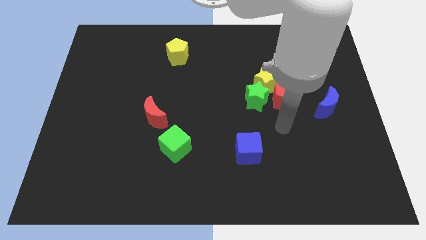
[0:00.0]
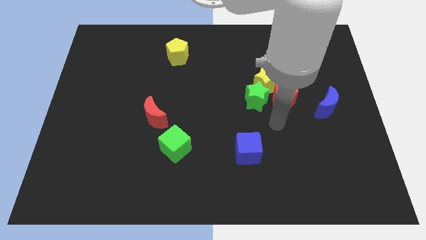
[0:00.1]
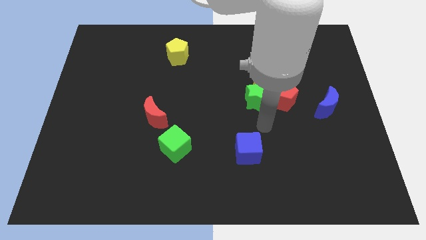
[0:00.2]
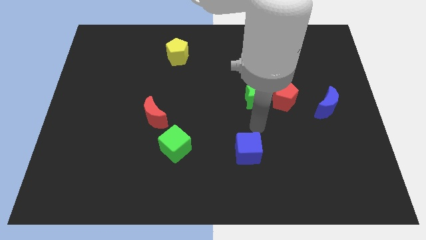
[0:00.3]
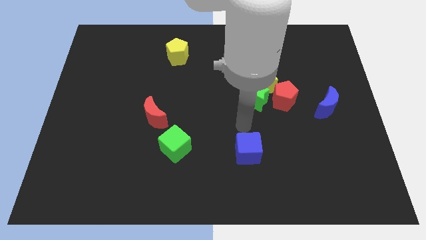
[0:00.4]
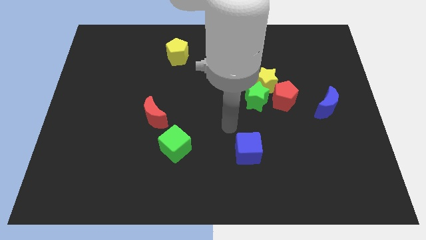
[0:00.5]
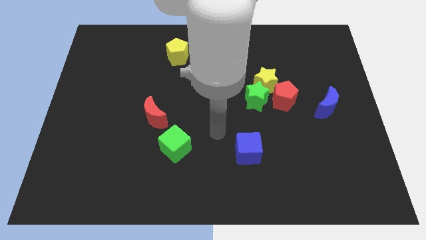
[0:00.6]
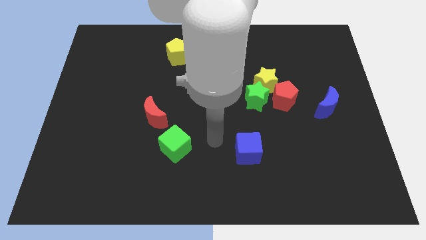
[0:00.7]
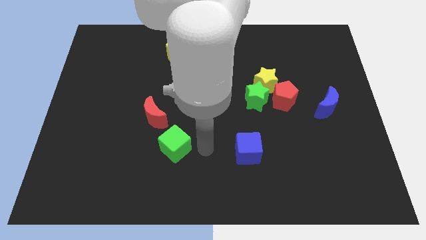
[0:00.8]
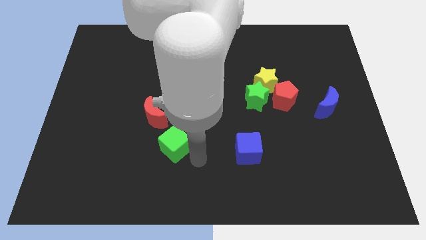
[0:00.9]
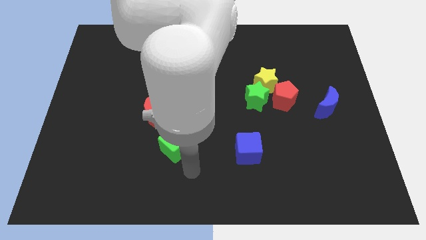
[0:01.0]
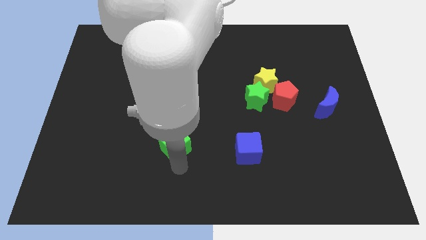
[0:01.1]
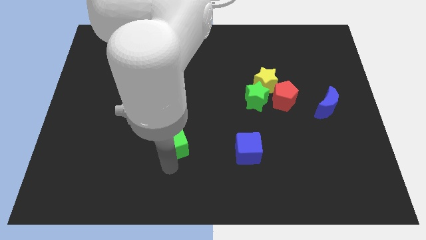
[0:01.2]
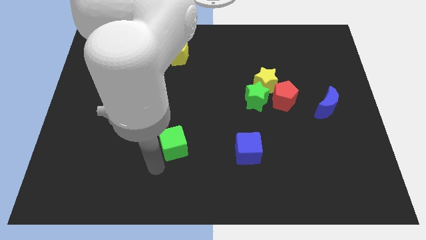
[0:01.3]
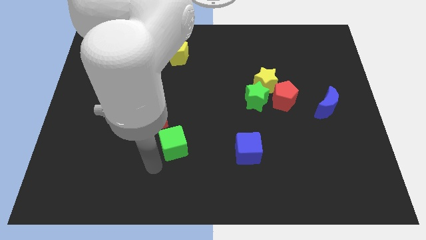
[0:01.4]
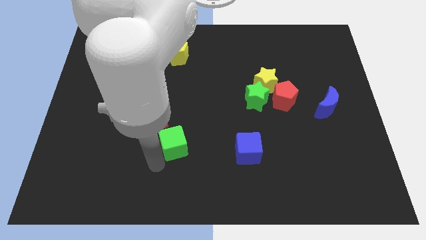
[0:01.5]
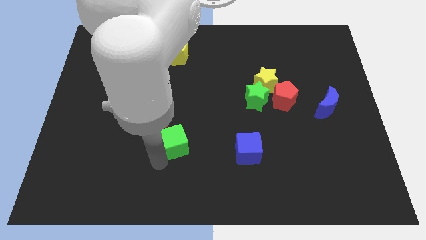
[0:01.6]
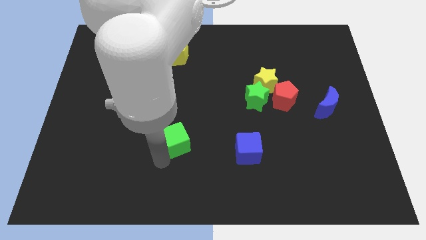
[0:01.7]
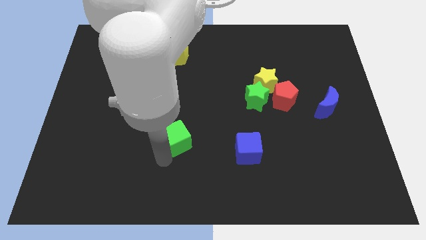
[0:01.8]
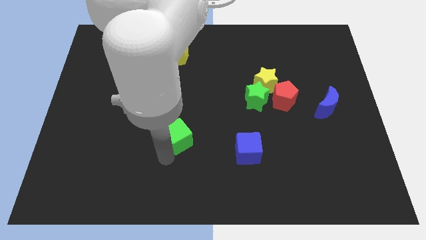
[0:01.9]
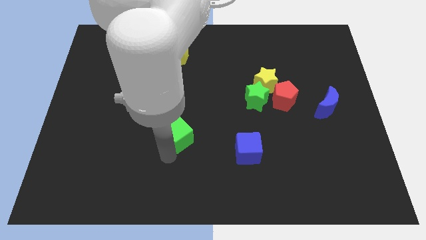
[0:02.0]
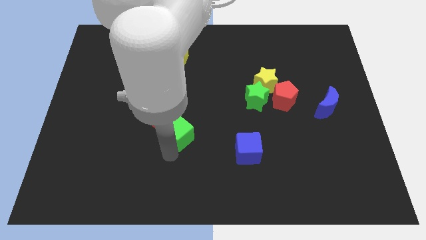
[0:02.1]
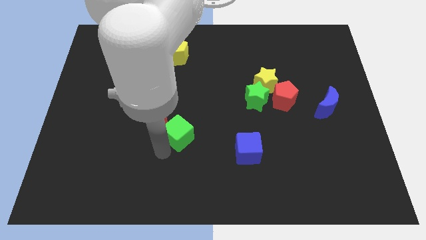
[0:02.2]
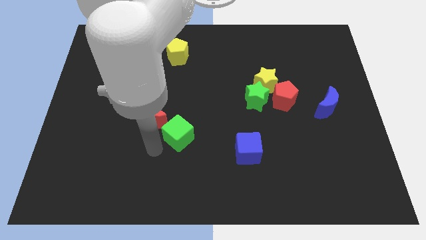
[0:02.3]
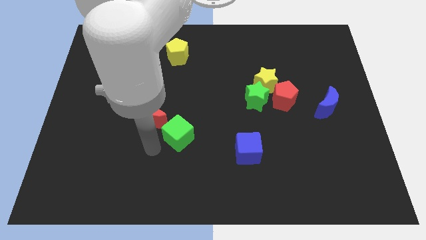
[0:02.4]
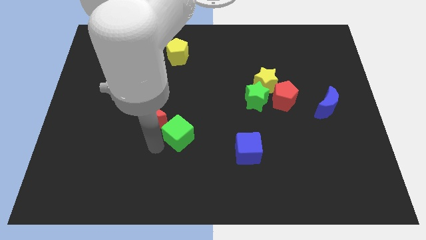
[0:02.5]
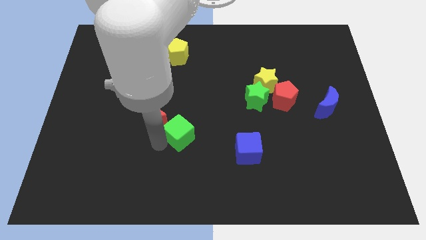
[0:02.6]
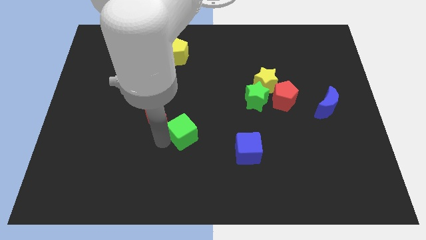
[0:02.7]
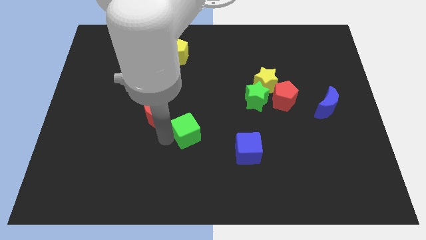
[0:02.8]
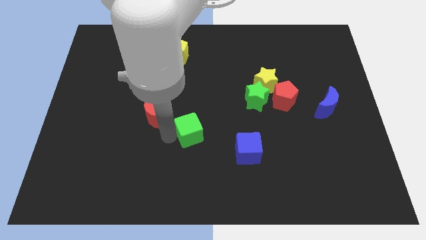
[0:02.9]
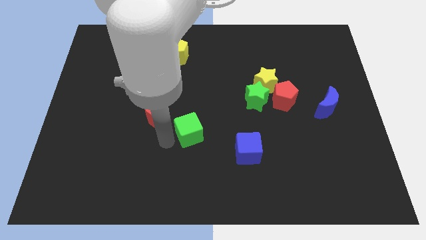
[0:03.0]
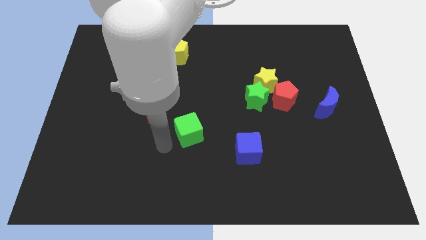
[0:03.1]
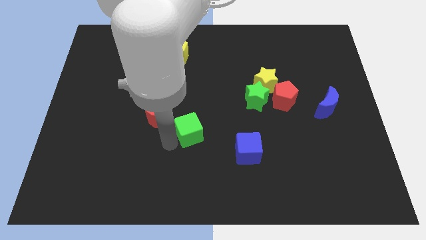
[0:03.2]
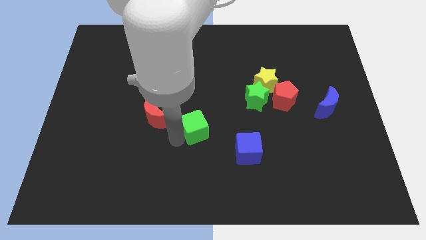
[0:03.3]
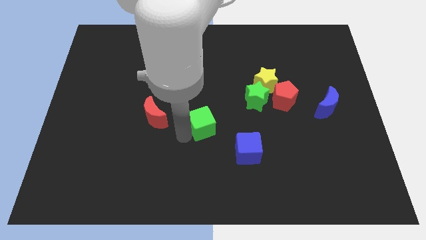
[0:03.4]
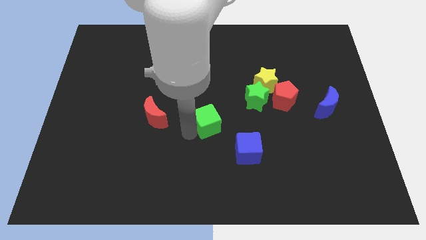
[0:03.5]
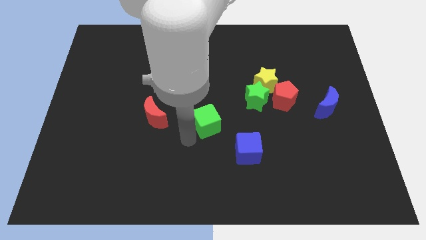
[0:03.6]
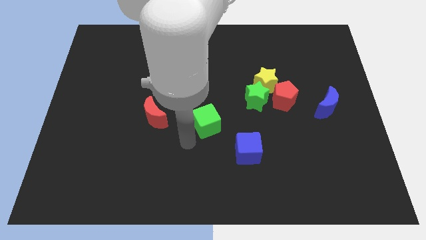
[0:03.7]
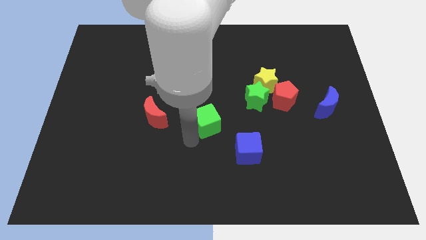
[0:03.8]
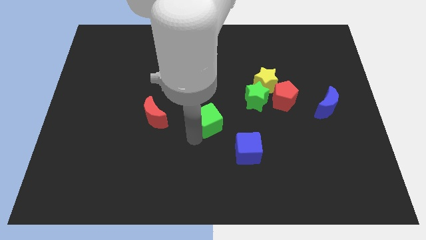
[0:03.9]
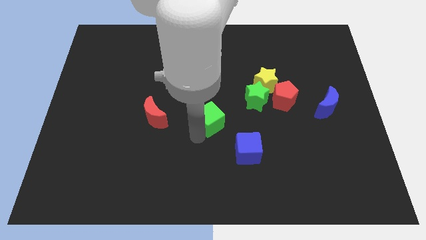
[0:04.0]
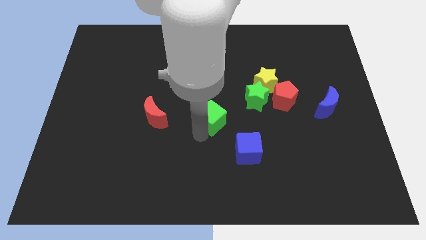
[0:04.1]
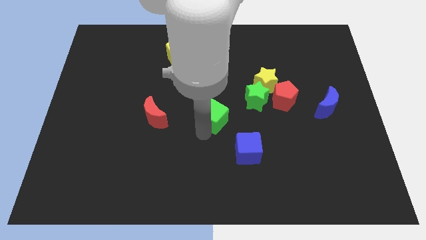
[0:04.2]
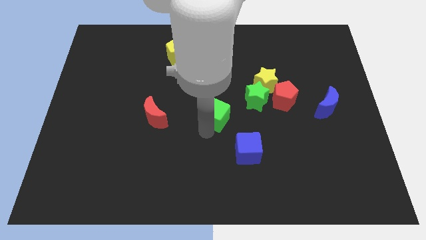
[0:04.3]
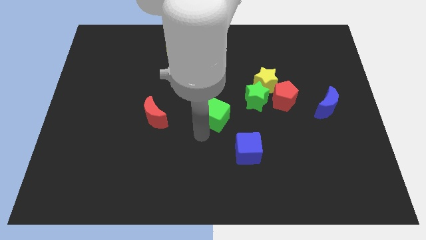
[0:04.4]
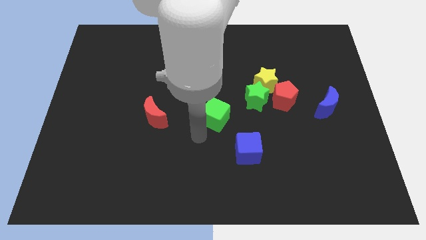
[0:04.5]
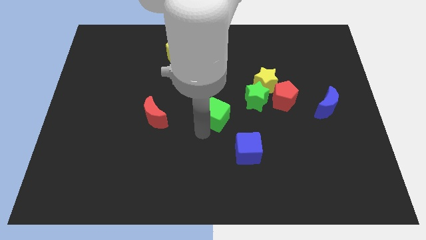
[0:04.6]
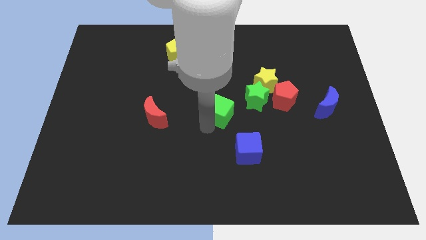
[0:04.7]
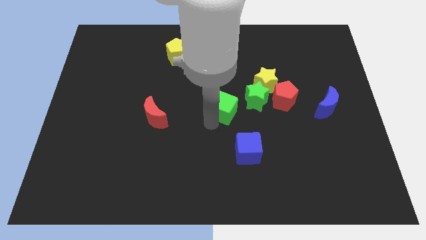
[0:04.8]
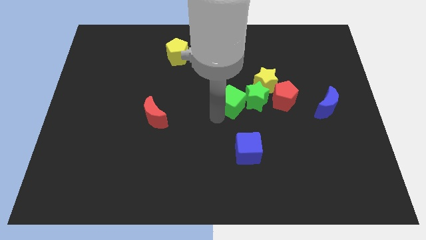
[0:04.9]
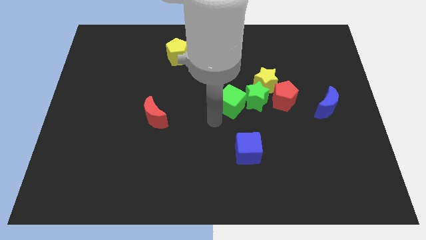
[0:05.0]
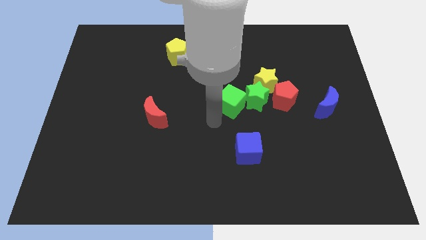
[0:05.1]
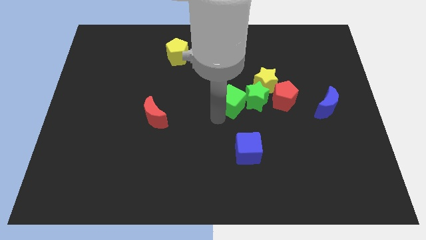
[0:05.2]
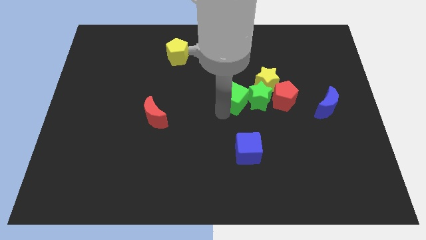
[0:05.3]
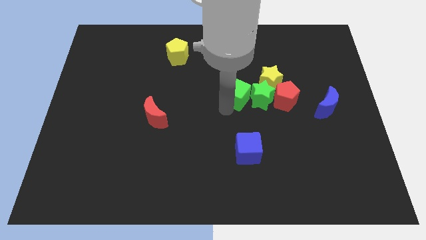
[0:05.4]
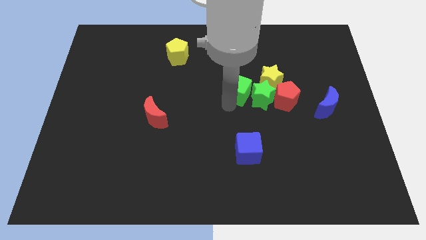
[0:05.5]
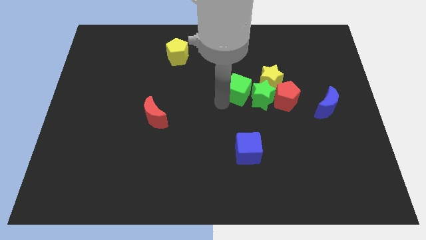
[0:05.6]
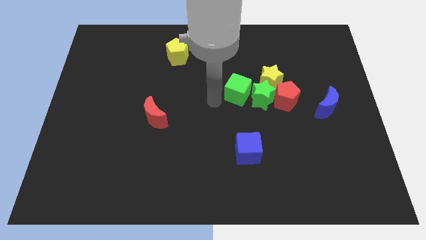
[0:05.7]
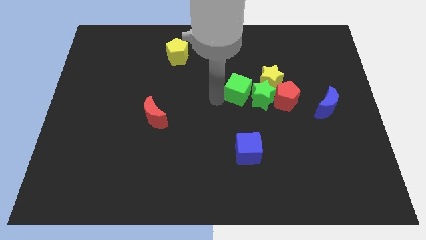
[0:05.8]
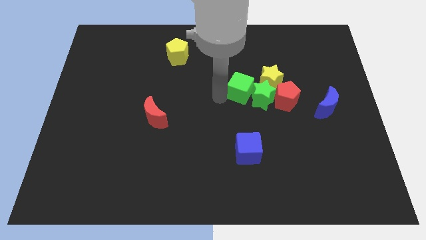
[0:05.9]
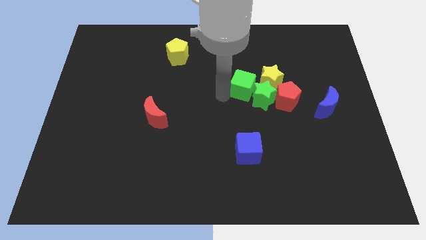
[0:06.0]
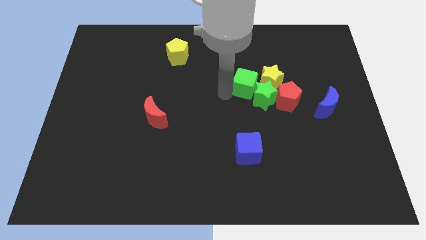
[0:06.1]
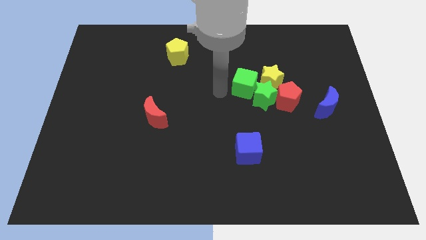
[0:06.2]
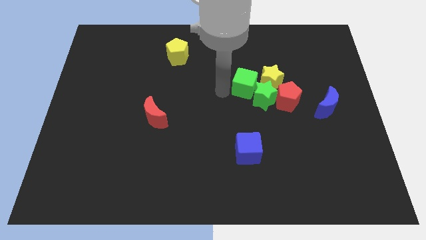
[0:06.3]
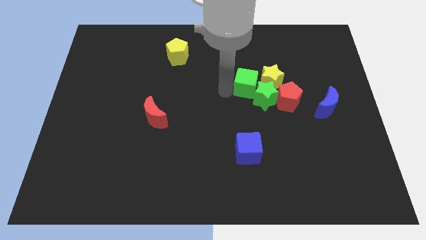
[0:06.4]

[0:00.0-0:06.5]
slide the green cube to the yellow star
